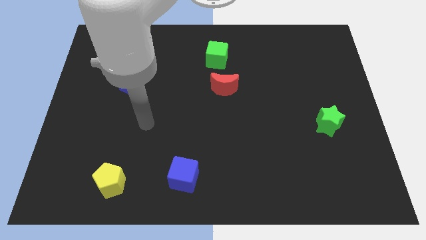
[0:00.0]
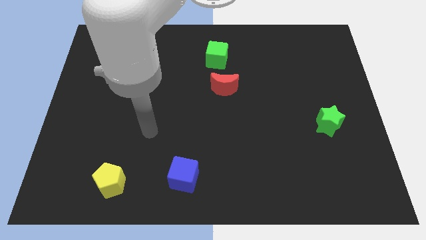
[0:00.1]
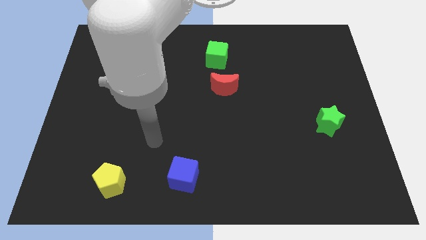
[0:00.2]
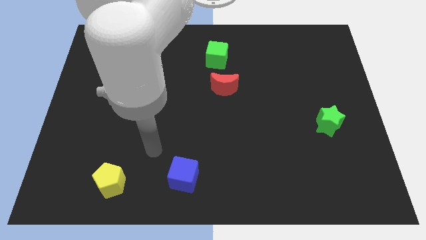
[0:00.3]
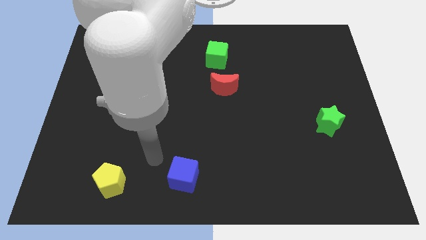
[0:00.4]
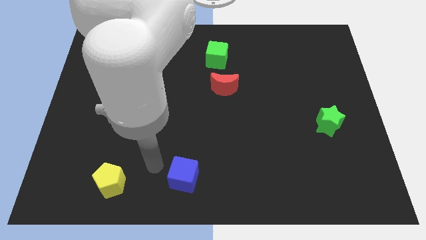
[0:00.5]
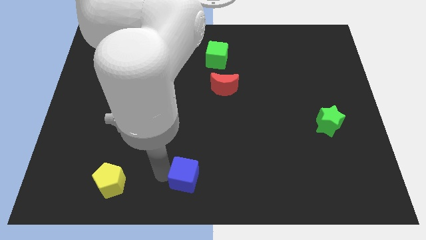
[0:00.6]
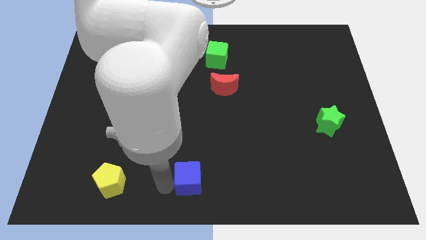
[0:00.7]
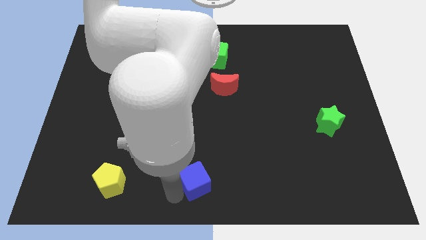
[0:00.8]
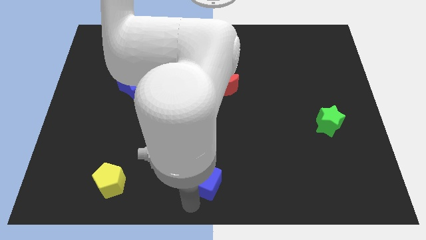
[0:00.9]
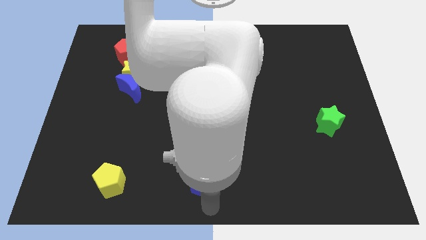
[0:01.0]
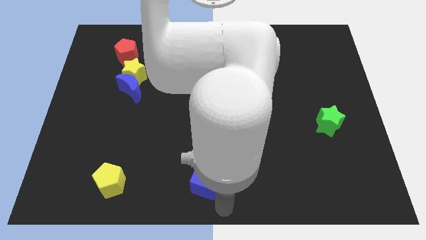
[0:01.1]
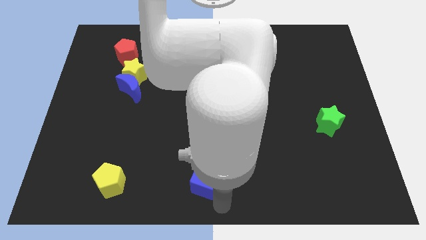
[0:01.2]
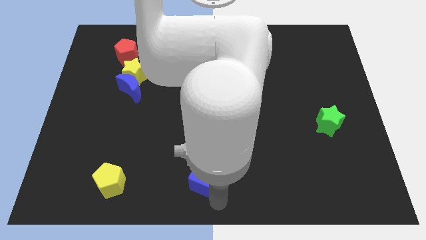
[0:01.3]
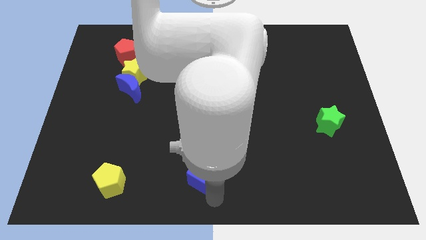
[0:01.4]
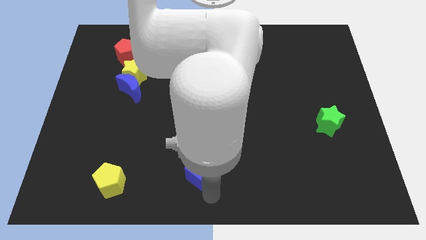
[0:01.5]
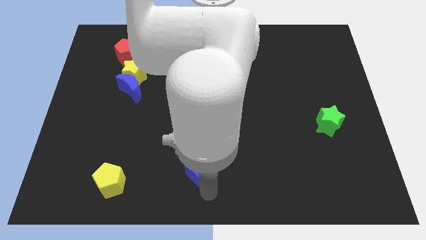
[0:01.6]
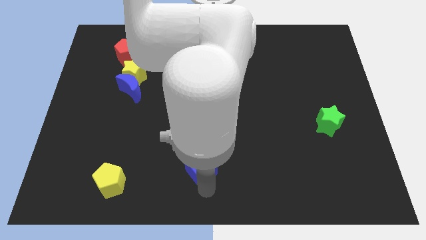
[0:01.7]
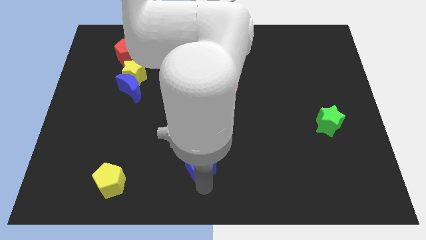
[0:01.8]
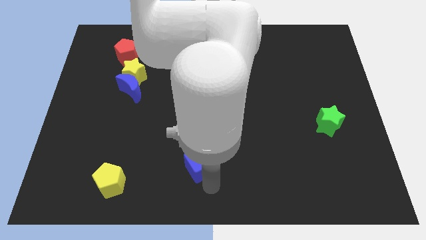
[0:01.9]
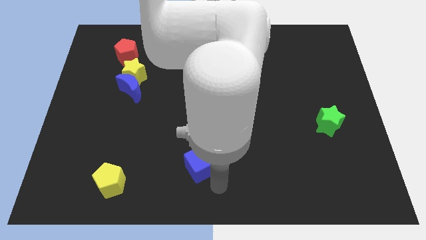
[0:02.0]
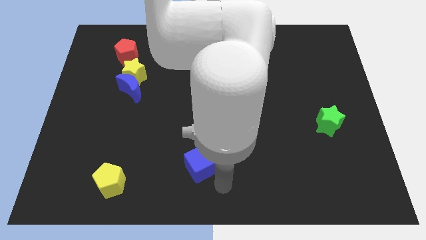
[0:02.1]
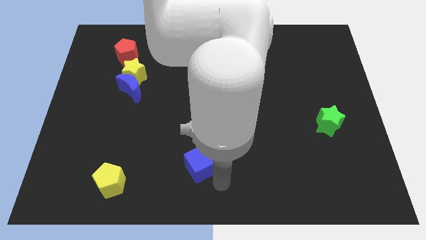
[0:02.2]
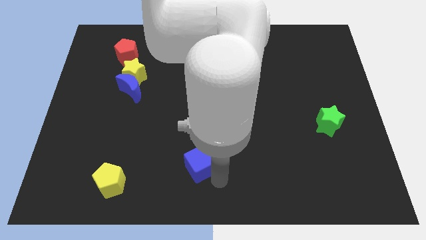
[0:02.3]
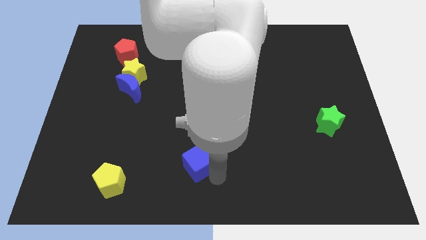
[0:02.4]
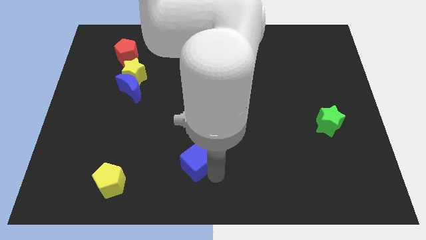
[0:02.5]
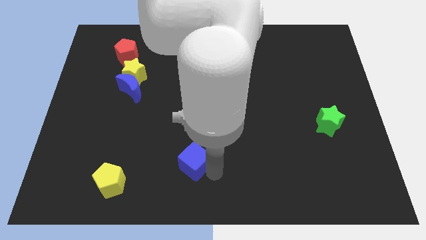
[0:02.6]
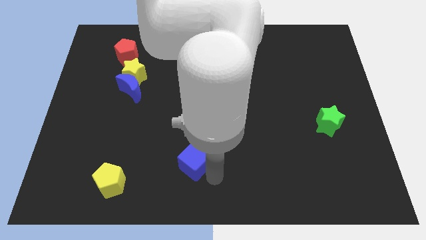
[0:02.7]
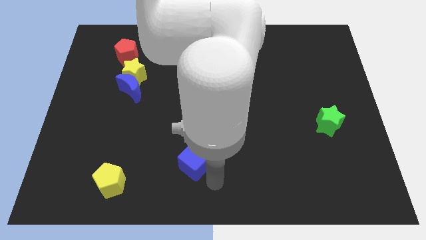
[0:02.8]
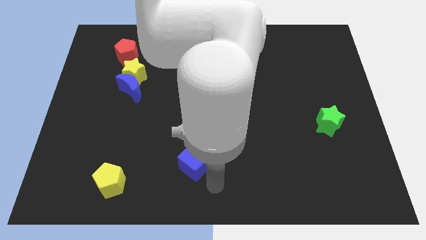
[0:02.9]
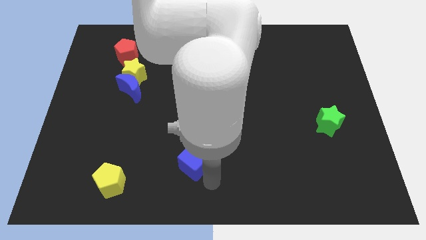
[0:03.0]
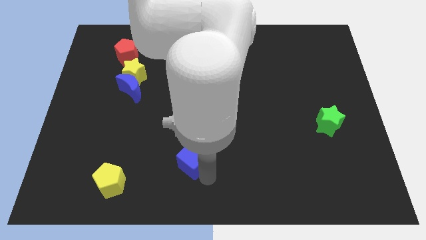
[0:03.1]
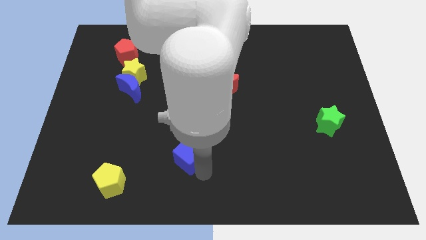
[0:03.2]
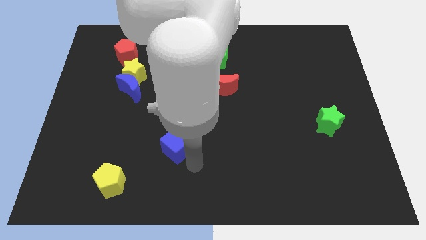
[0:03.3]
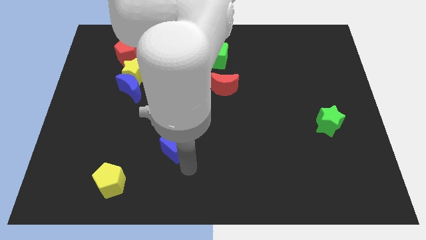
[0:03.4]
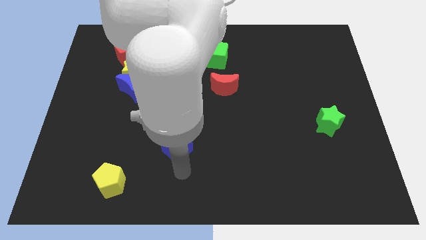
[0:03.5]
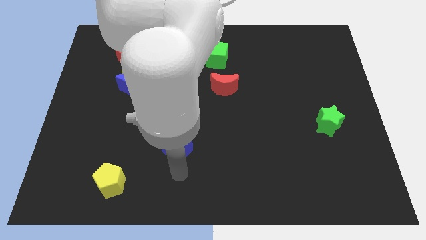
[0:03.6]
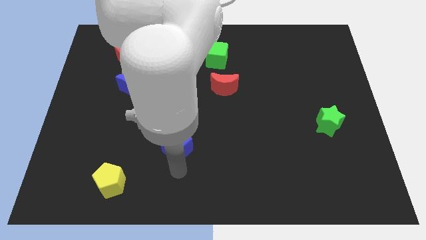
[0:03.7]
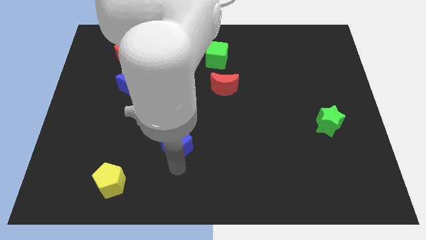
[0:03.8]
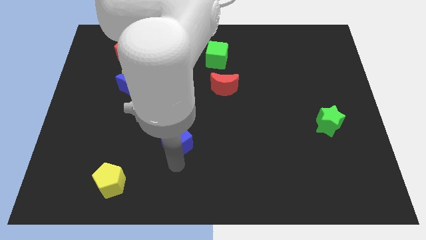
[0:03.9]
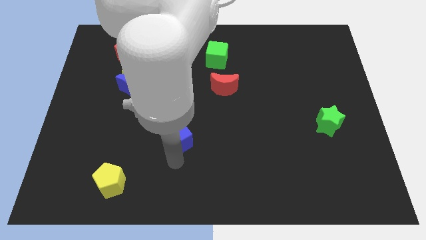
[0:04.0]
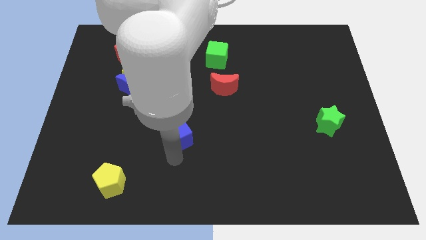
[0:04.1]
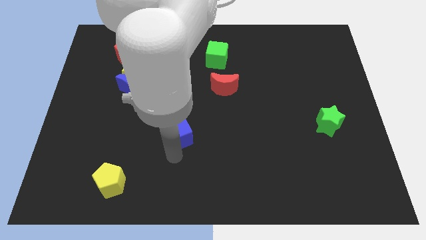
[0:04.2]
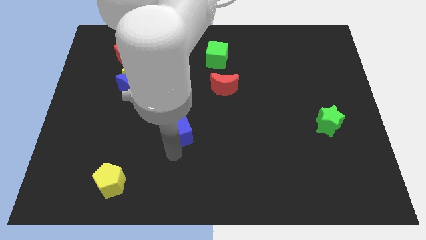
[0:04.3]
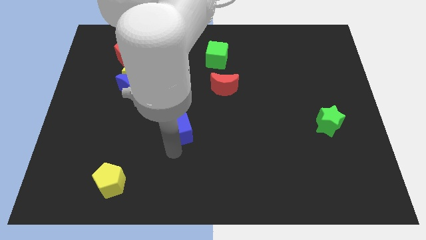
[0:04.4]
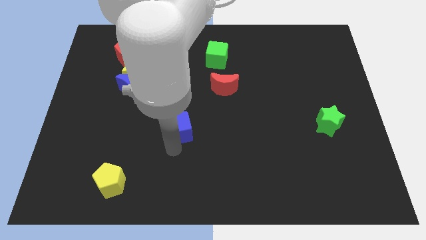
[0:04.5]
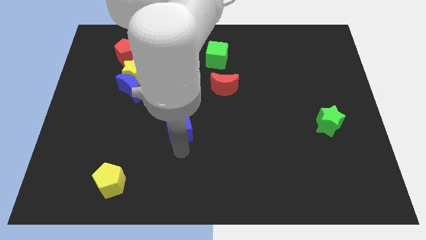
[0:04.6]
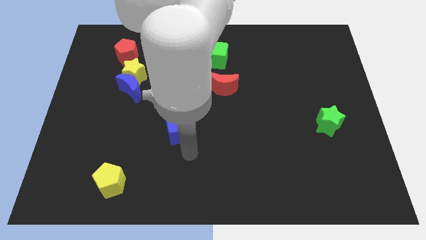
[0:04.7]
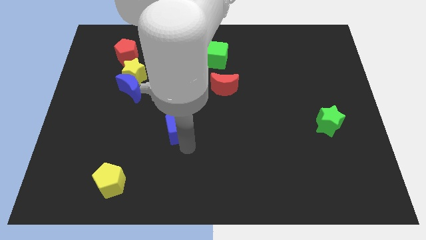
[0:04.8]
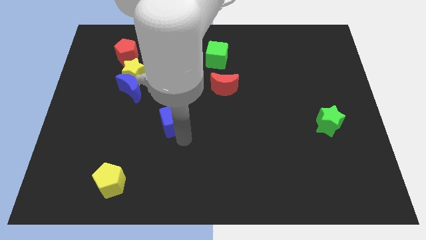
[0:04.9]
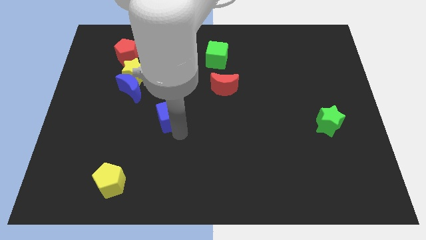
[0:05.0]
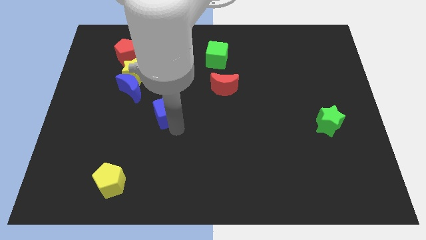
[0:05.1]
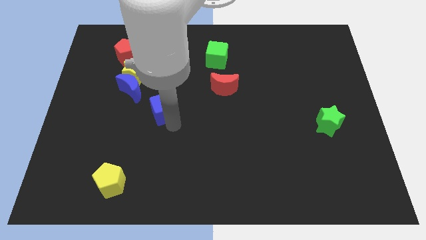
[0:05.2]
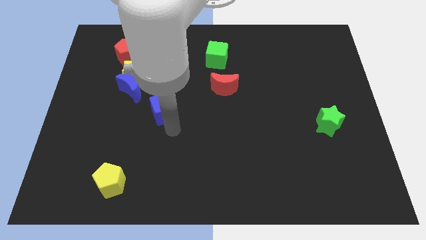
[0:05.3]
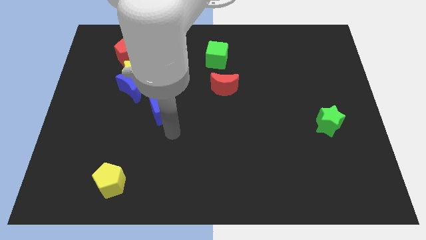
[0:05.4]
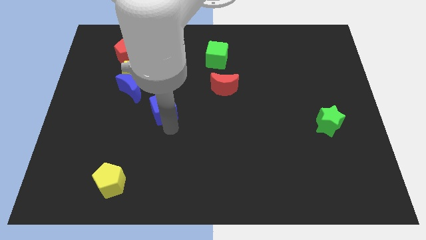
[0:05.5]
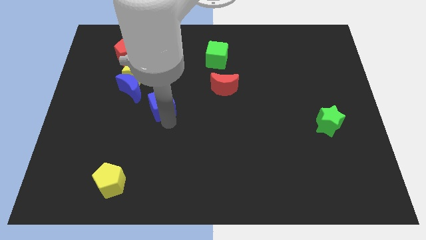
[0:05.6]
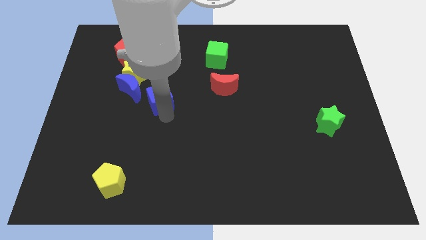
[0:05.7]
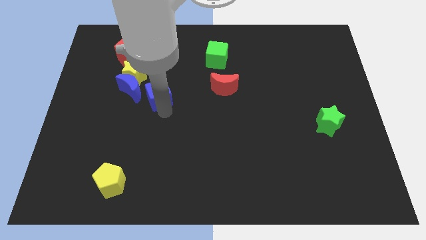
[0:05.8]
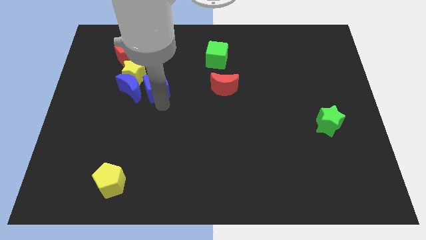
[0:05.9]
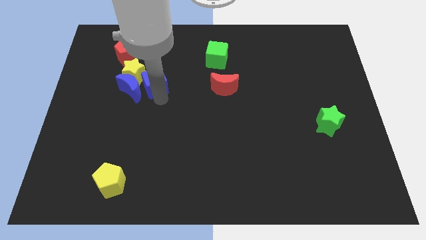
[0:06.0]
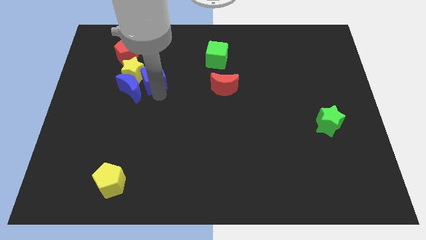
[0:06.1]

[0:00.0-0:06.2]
put the blue cube to the yellow star

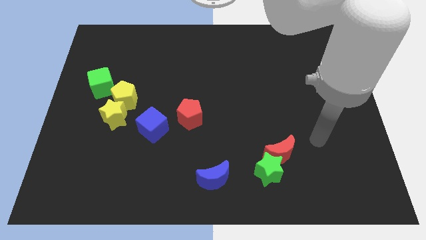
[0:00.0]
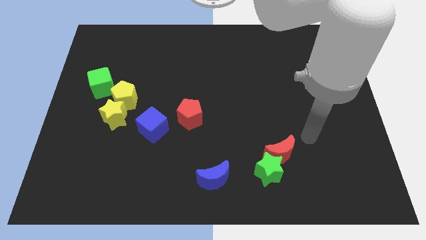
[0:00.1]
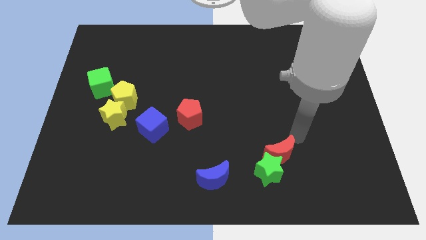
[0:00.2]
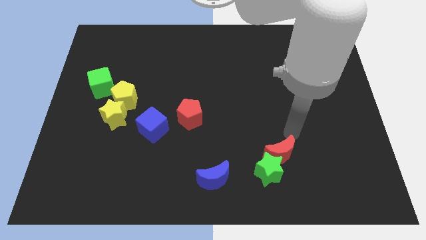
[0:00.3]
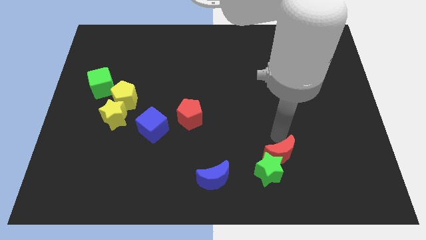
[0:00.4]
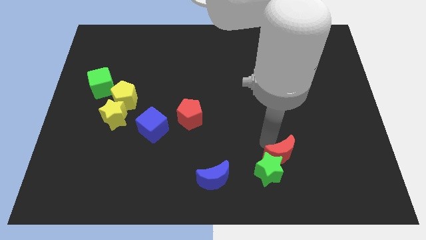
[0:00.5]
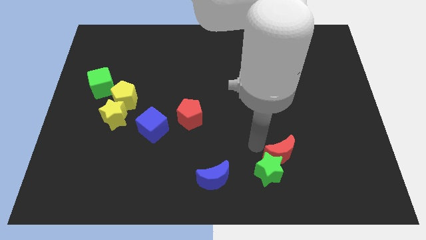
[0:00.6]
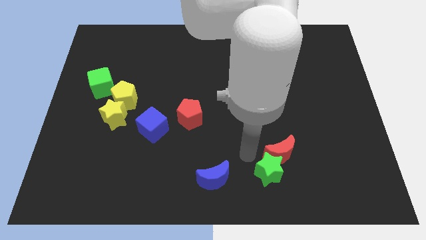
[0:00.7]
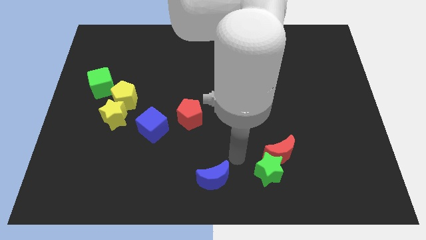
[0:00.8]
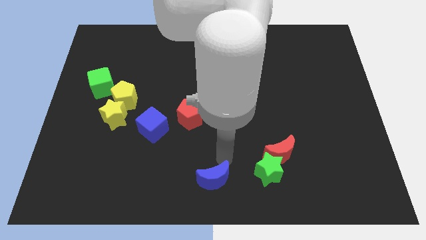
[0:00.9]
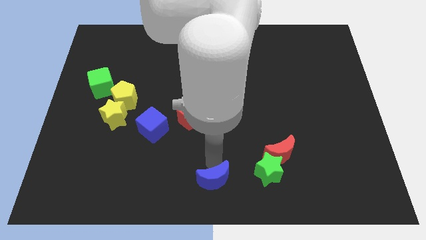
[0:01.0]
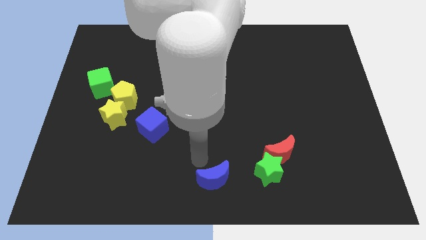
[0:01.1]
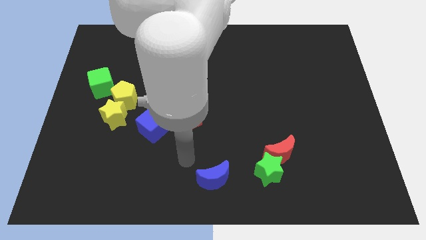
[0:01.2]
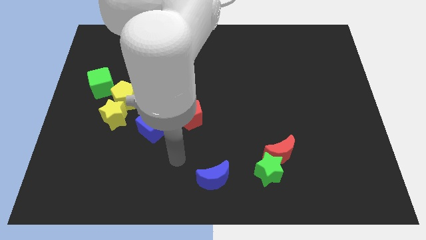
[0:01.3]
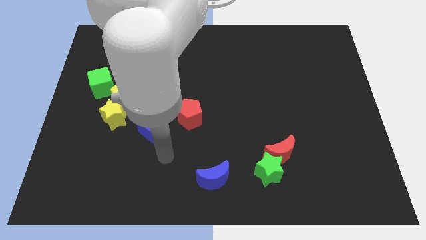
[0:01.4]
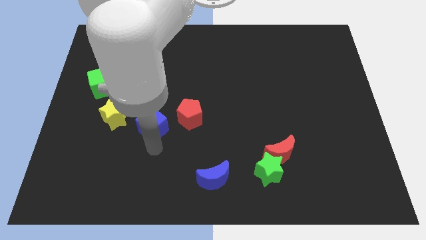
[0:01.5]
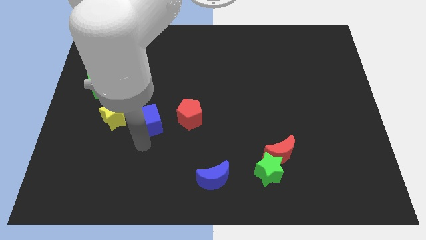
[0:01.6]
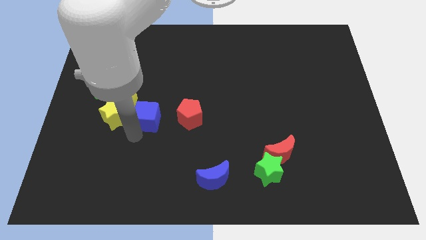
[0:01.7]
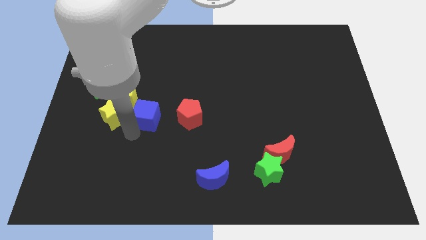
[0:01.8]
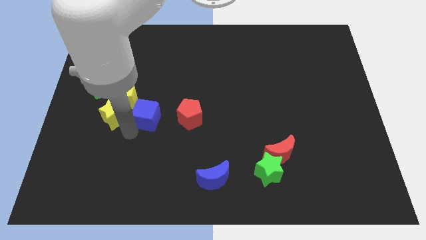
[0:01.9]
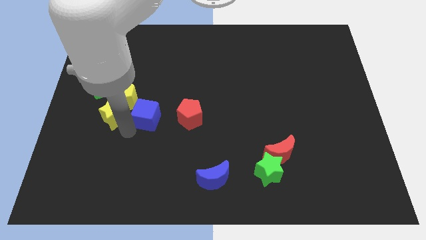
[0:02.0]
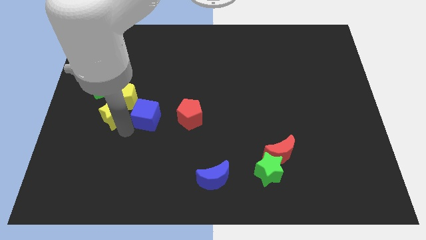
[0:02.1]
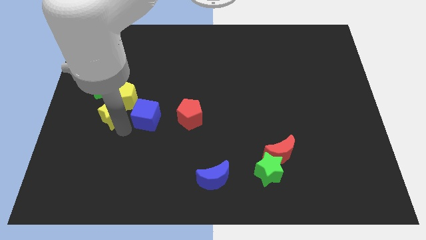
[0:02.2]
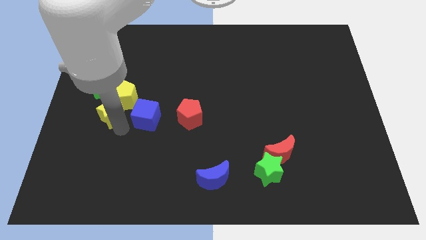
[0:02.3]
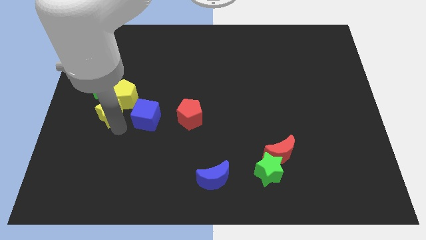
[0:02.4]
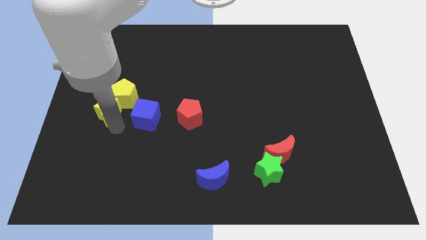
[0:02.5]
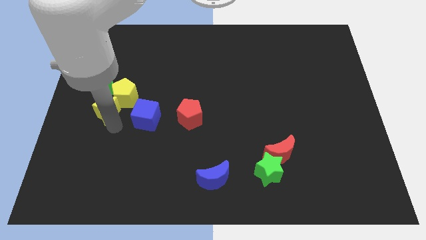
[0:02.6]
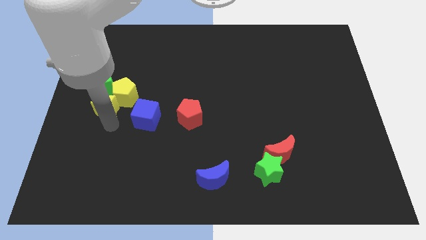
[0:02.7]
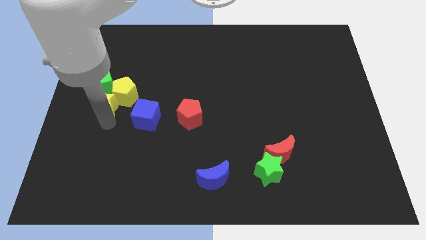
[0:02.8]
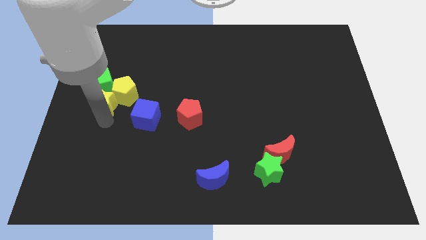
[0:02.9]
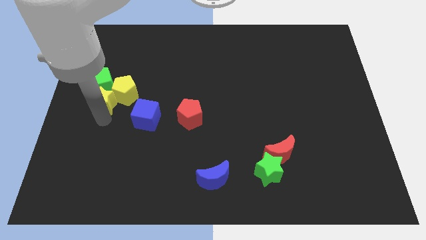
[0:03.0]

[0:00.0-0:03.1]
put the yellow star close to the green cube
